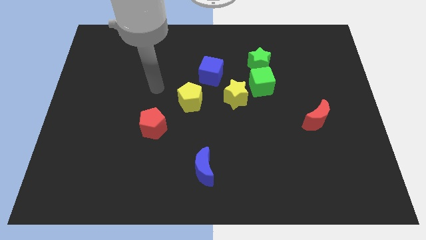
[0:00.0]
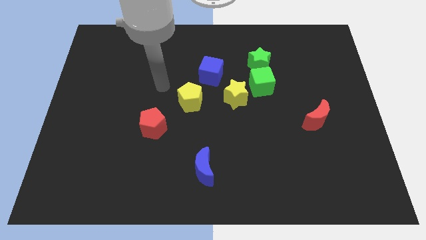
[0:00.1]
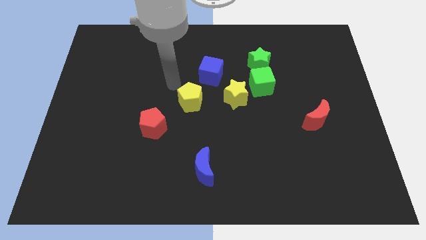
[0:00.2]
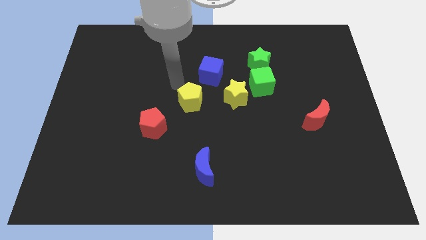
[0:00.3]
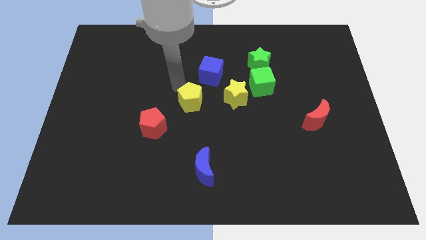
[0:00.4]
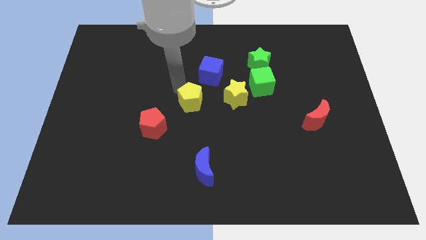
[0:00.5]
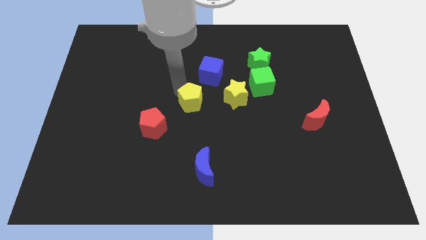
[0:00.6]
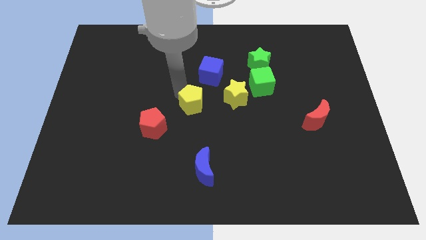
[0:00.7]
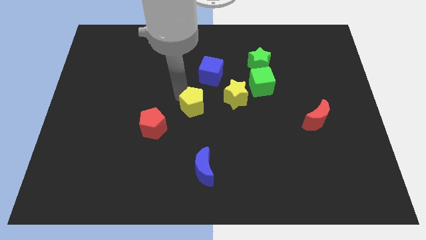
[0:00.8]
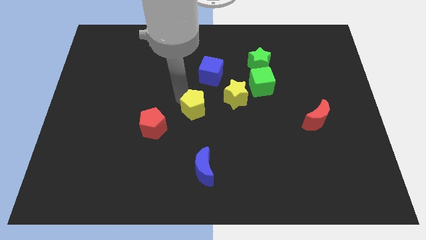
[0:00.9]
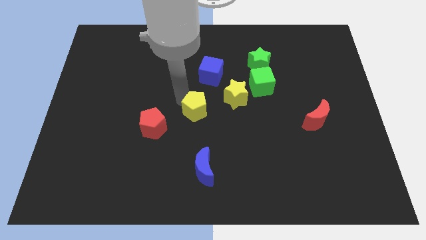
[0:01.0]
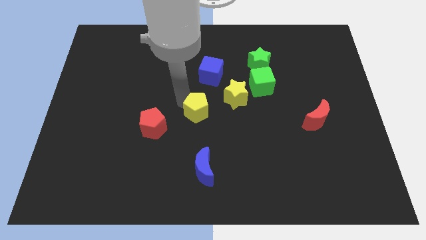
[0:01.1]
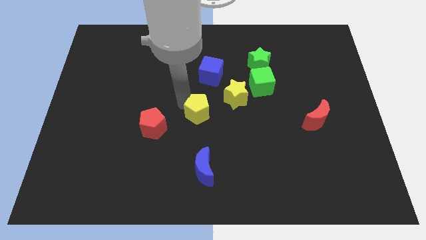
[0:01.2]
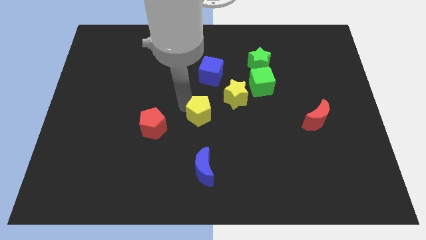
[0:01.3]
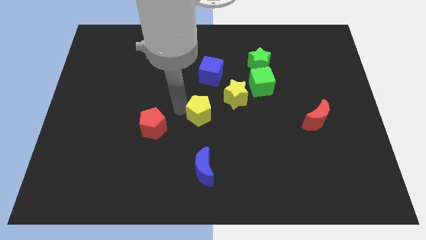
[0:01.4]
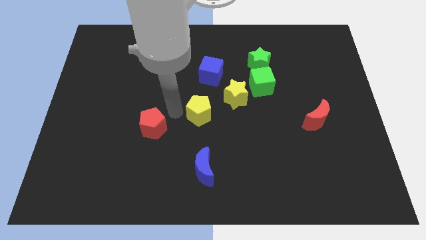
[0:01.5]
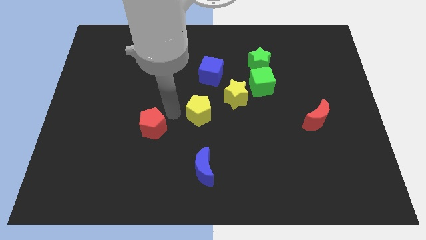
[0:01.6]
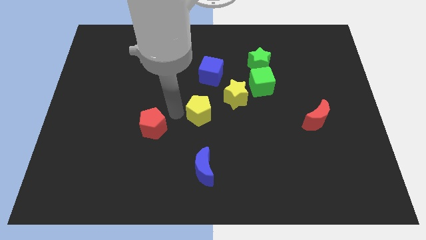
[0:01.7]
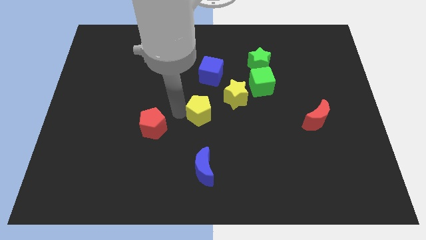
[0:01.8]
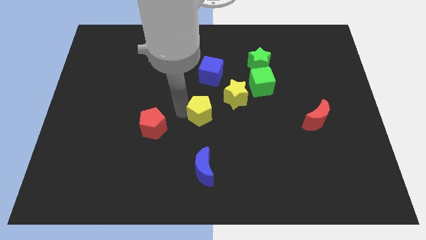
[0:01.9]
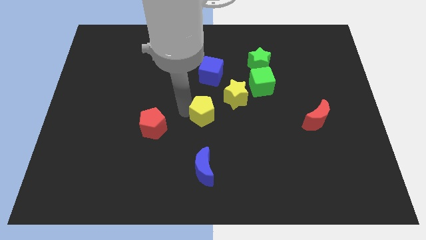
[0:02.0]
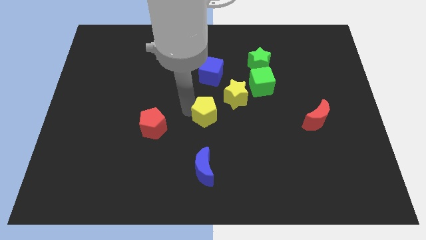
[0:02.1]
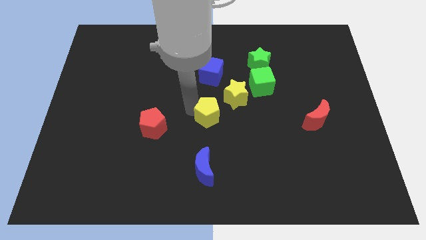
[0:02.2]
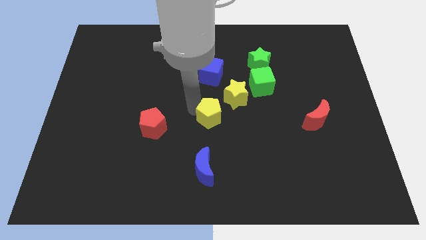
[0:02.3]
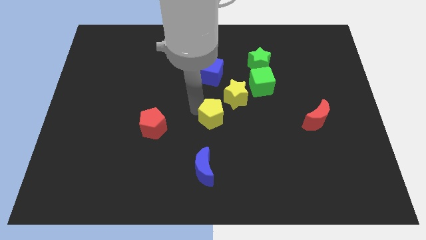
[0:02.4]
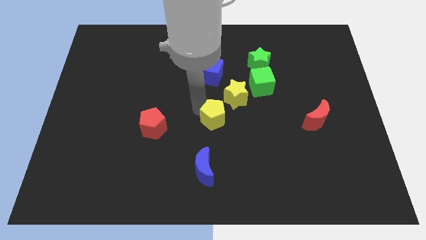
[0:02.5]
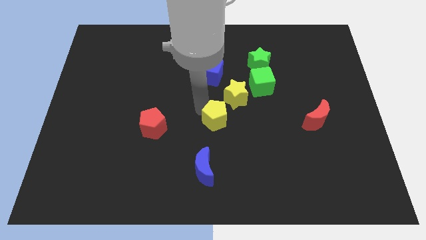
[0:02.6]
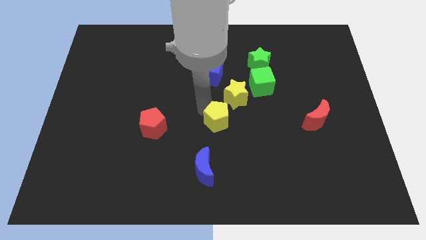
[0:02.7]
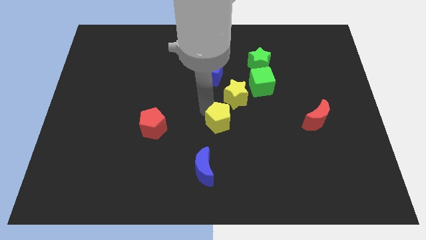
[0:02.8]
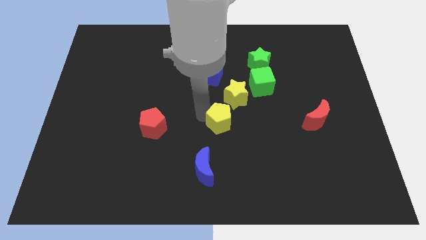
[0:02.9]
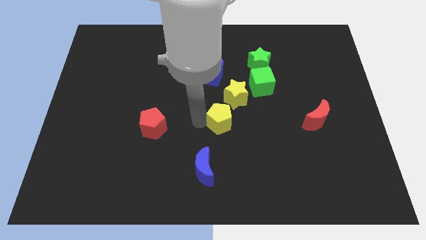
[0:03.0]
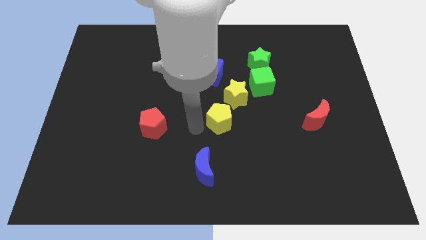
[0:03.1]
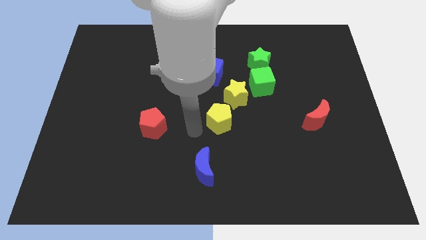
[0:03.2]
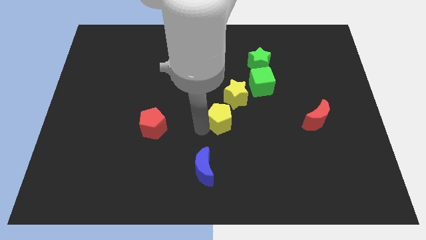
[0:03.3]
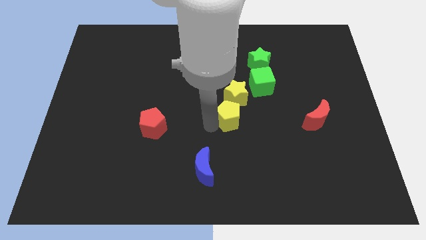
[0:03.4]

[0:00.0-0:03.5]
push the yellow pentagon right a little bit

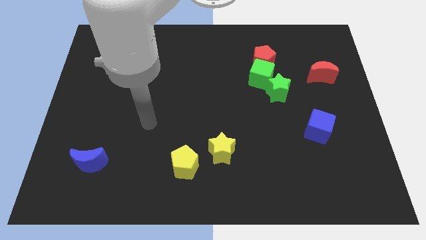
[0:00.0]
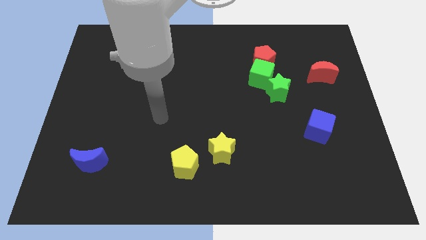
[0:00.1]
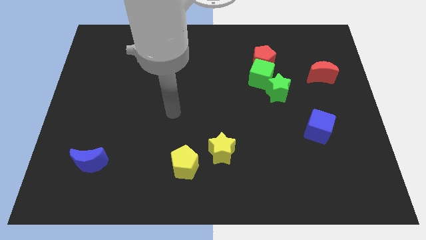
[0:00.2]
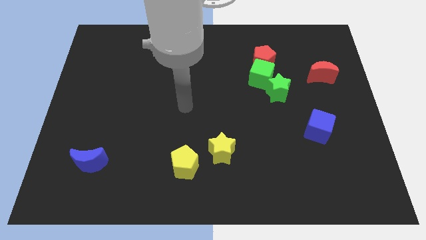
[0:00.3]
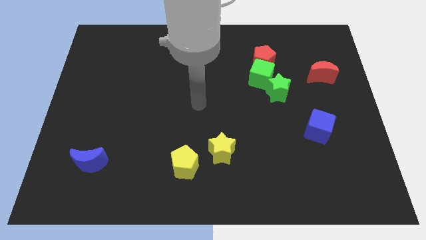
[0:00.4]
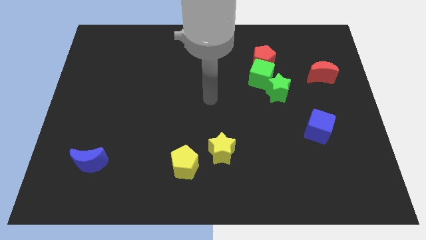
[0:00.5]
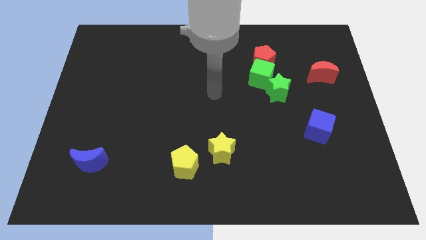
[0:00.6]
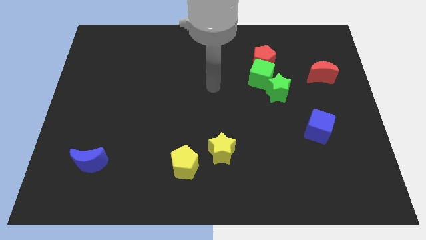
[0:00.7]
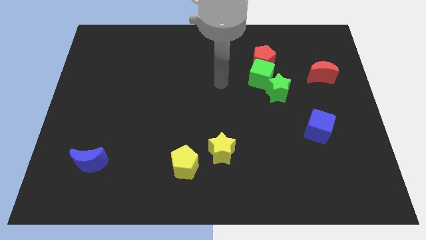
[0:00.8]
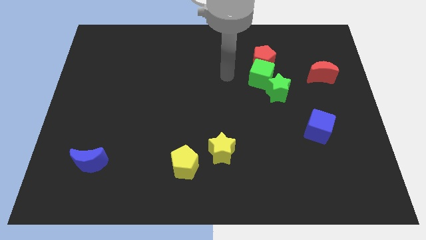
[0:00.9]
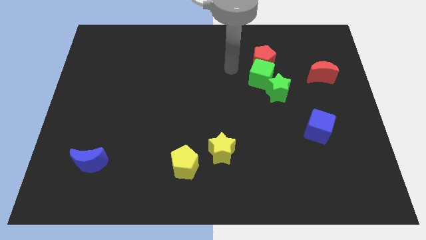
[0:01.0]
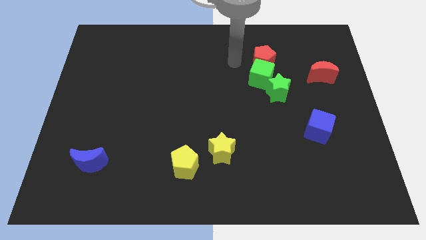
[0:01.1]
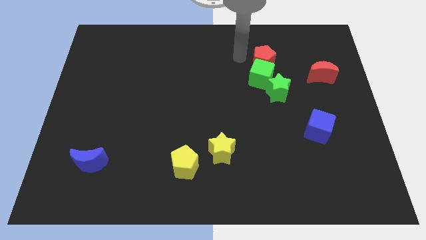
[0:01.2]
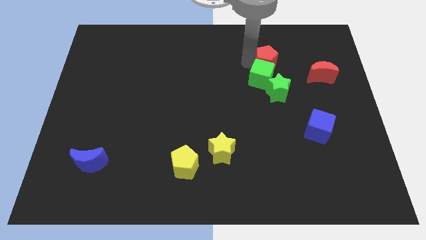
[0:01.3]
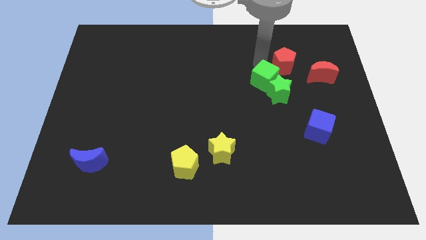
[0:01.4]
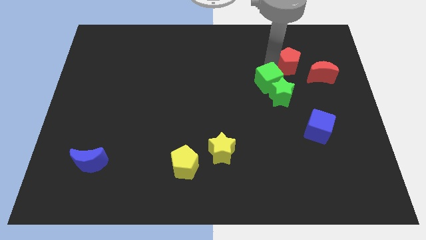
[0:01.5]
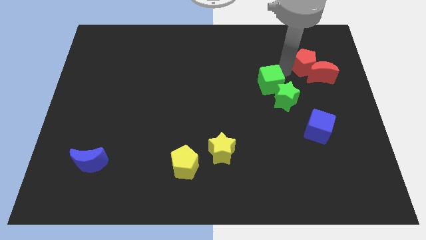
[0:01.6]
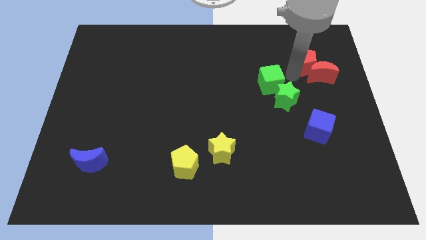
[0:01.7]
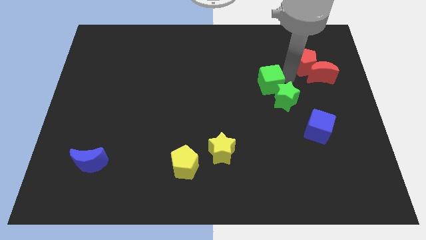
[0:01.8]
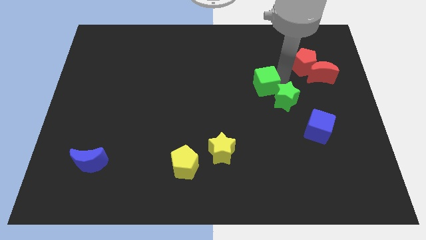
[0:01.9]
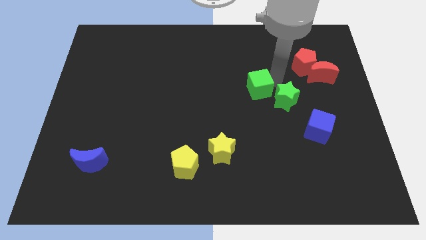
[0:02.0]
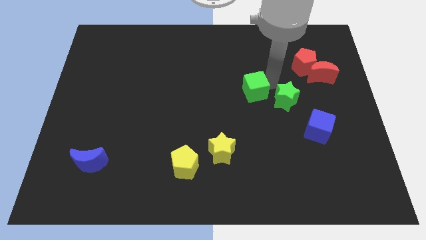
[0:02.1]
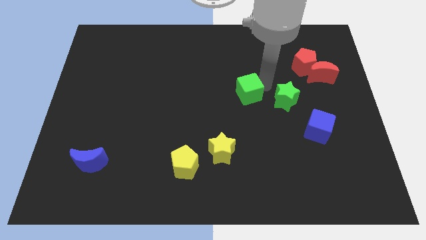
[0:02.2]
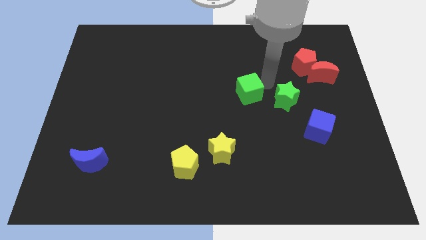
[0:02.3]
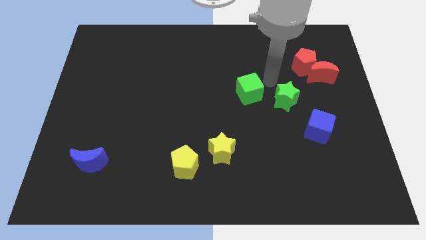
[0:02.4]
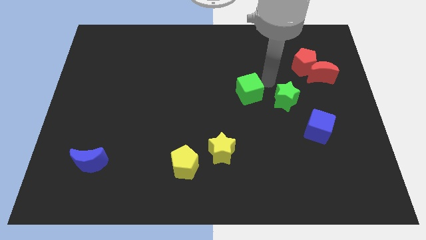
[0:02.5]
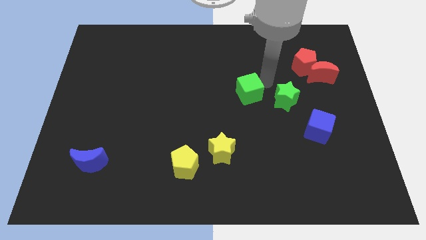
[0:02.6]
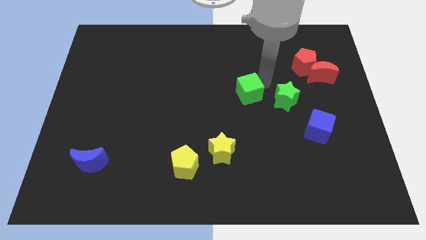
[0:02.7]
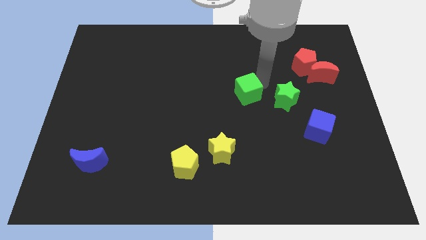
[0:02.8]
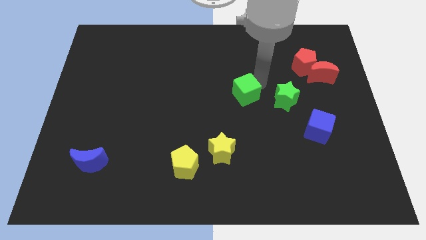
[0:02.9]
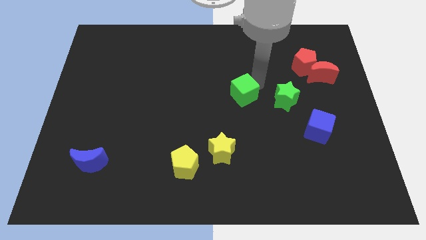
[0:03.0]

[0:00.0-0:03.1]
move the green cube a little diagonally down and to the left

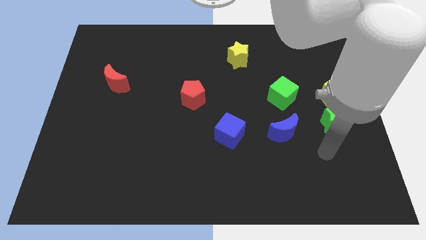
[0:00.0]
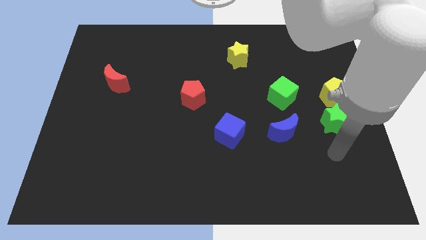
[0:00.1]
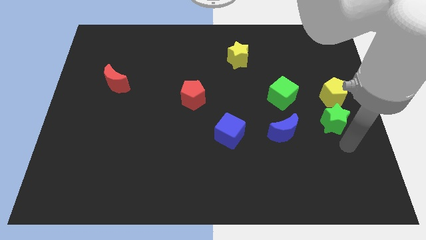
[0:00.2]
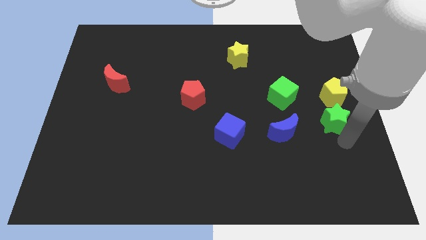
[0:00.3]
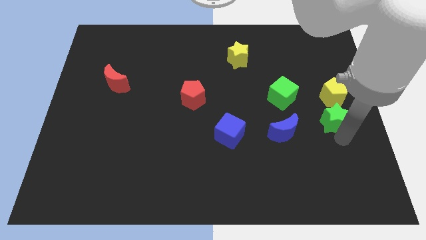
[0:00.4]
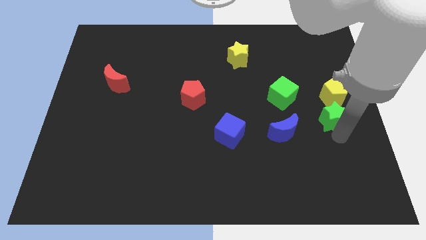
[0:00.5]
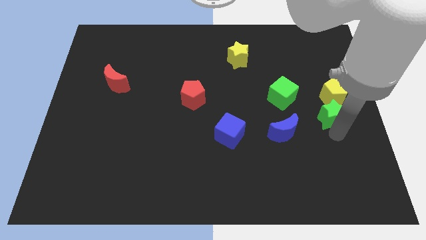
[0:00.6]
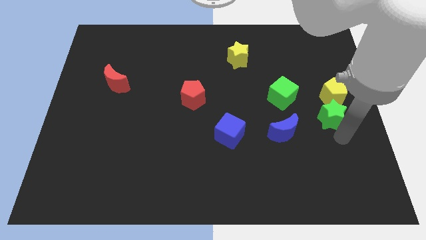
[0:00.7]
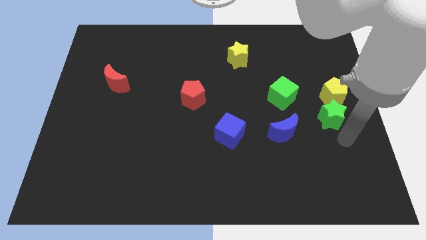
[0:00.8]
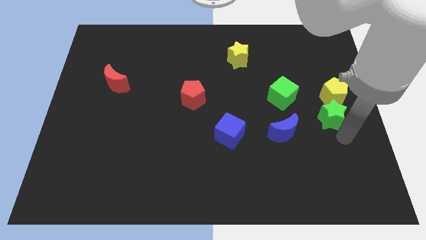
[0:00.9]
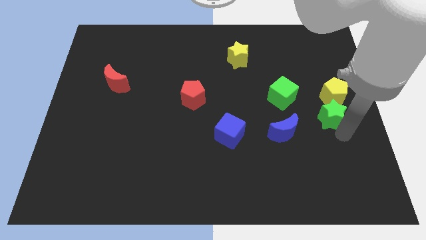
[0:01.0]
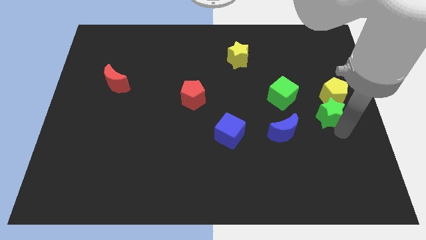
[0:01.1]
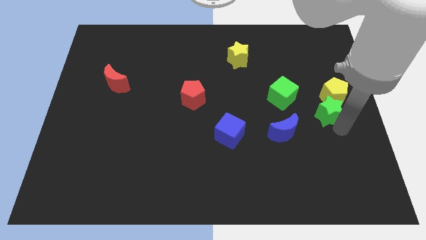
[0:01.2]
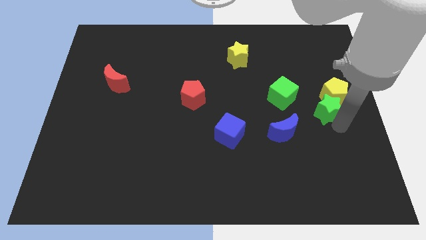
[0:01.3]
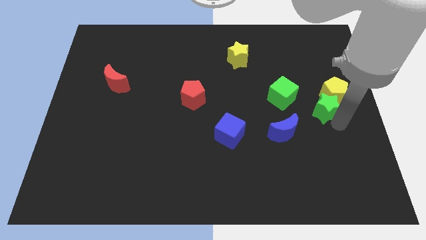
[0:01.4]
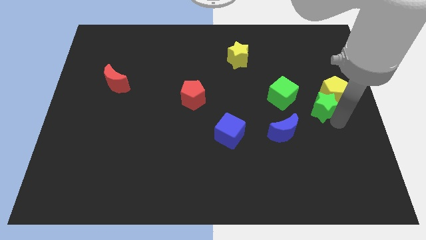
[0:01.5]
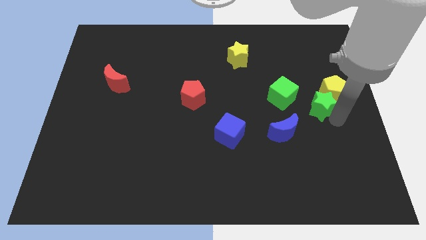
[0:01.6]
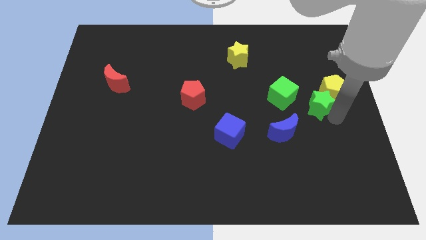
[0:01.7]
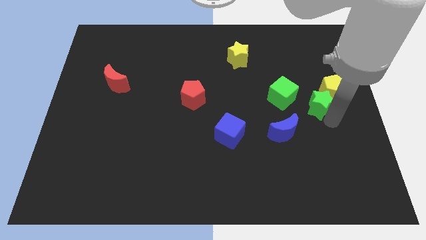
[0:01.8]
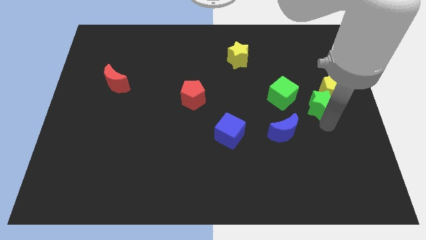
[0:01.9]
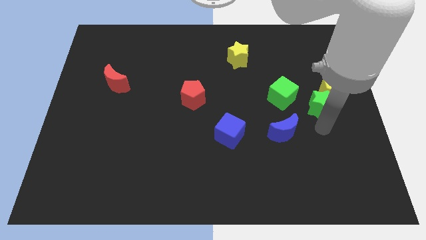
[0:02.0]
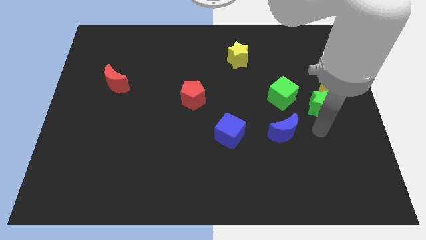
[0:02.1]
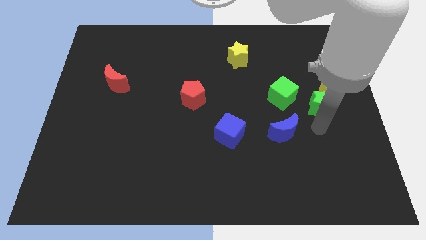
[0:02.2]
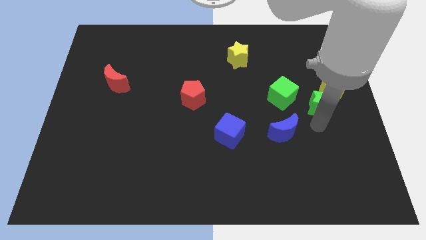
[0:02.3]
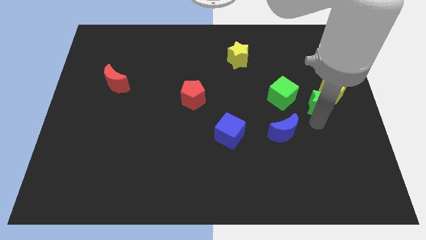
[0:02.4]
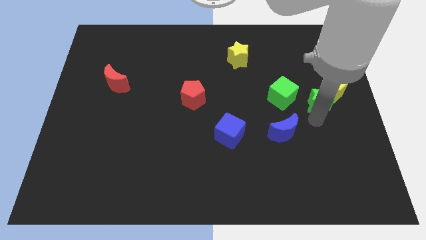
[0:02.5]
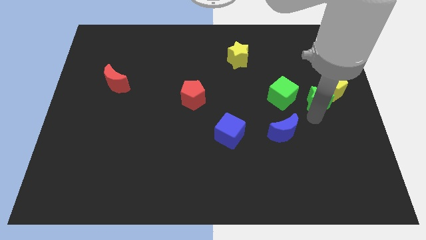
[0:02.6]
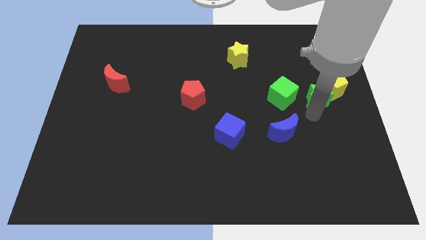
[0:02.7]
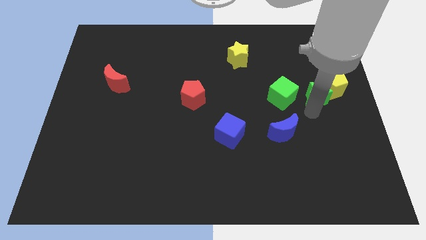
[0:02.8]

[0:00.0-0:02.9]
slightly push the green star up
